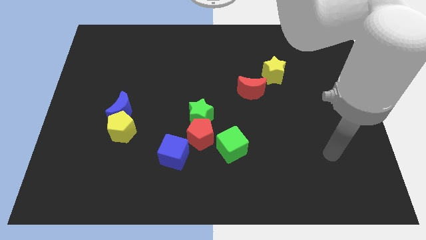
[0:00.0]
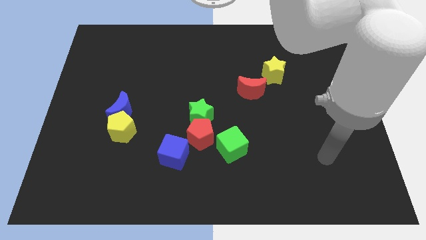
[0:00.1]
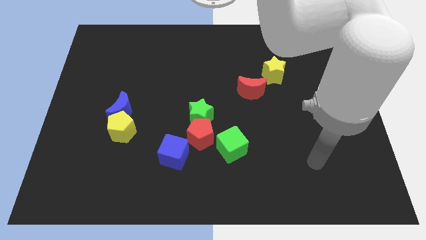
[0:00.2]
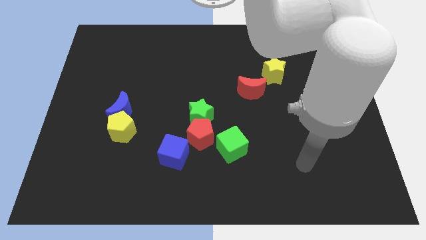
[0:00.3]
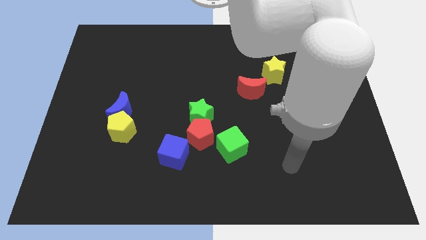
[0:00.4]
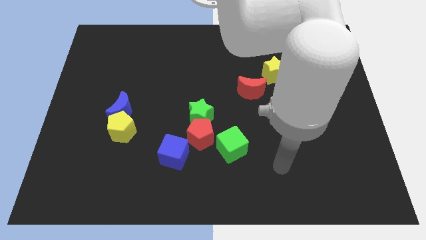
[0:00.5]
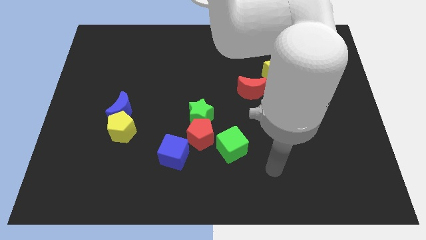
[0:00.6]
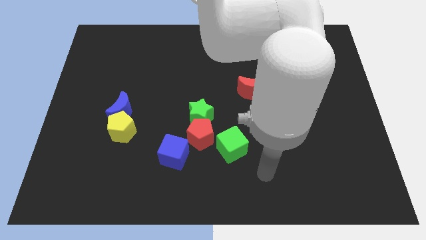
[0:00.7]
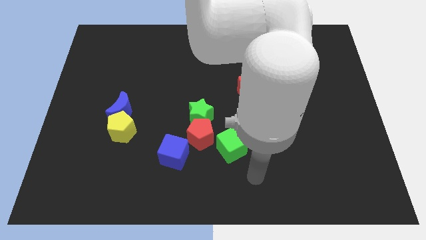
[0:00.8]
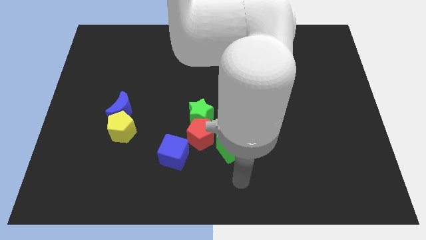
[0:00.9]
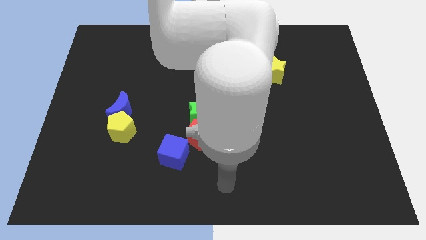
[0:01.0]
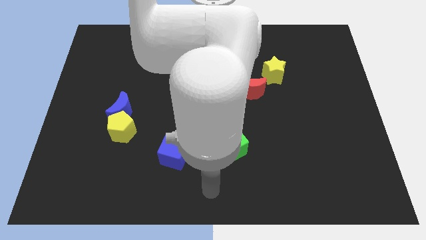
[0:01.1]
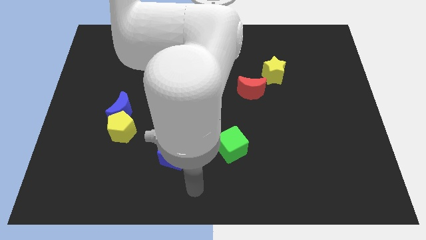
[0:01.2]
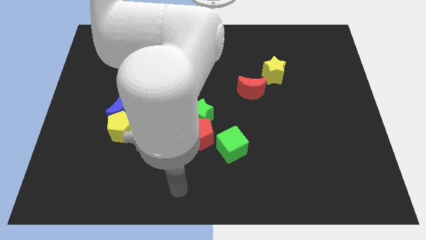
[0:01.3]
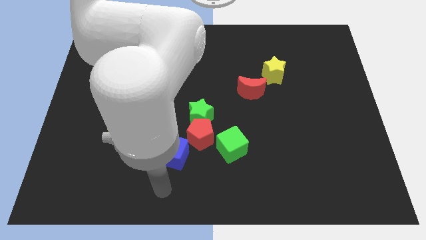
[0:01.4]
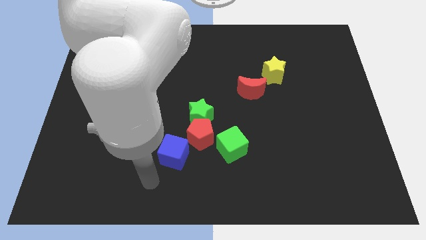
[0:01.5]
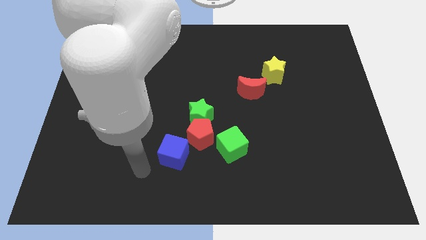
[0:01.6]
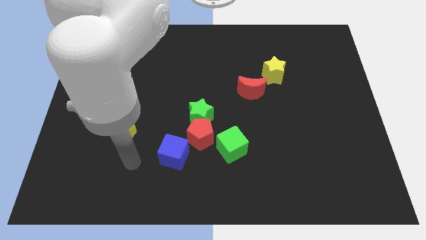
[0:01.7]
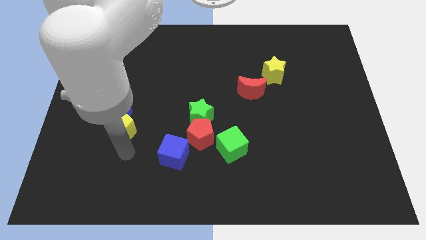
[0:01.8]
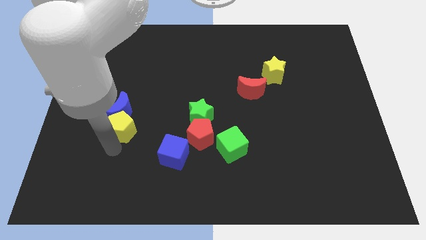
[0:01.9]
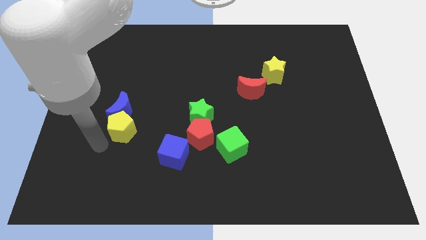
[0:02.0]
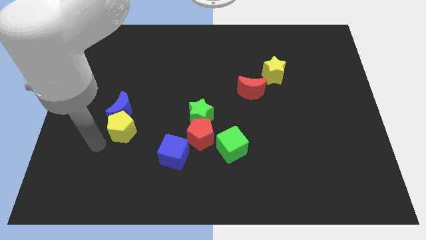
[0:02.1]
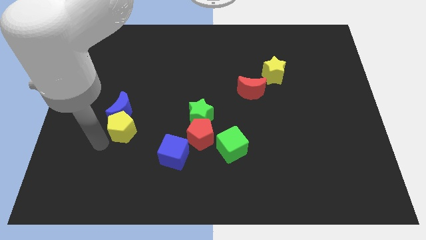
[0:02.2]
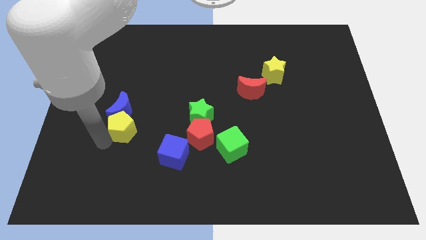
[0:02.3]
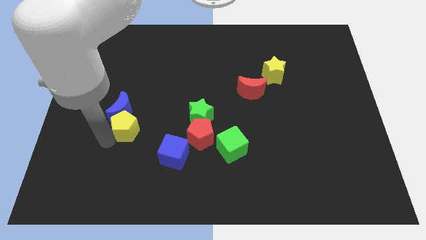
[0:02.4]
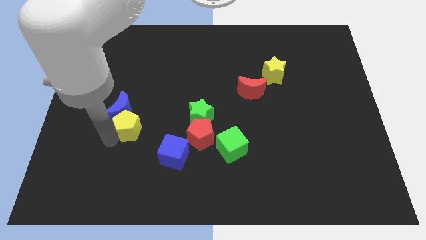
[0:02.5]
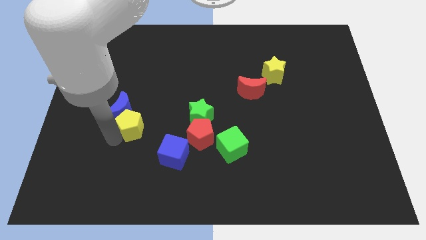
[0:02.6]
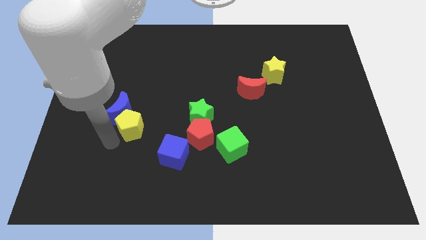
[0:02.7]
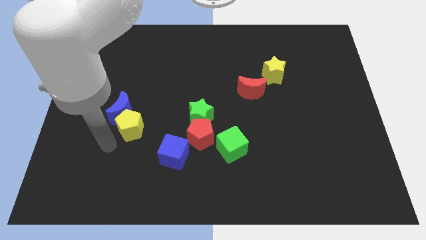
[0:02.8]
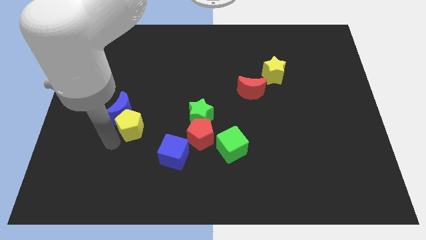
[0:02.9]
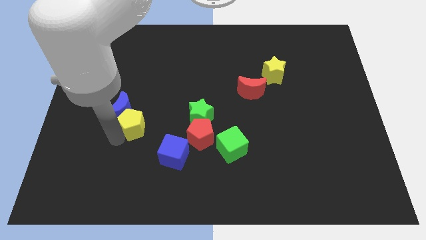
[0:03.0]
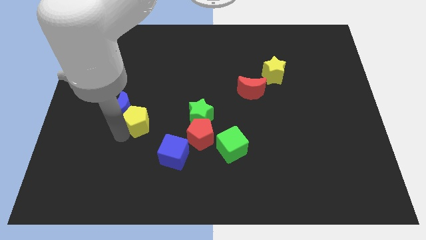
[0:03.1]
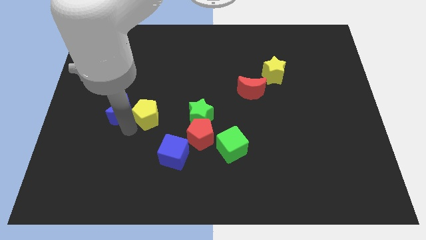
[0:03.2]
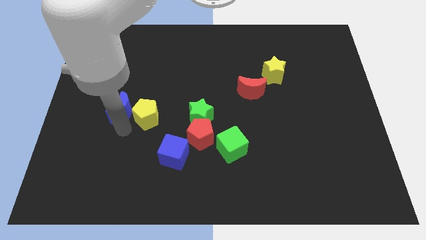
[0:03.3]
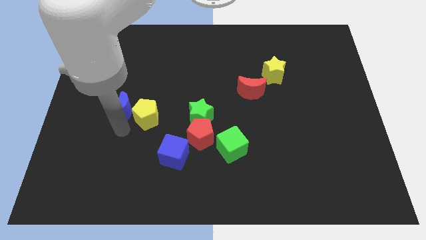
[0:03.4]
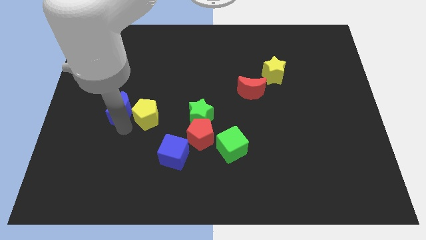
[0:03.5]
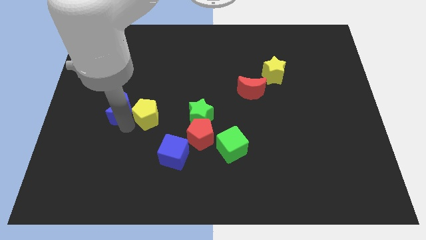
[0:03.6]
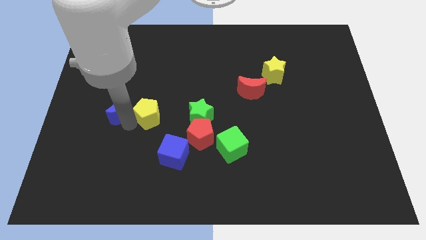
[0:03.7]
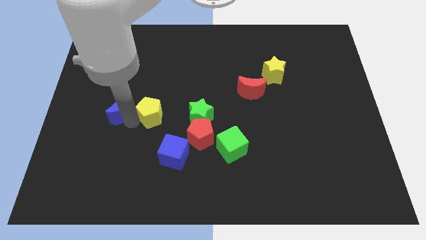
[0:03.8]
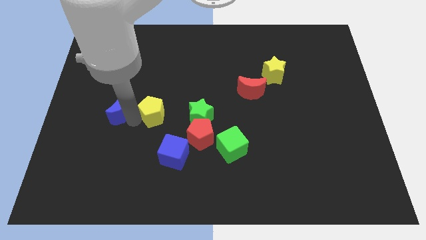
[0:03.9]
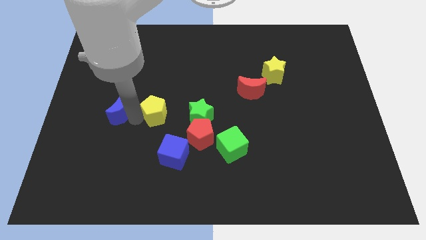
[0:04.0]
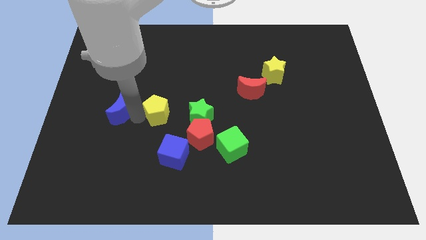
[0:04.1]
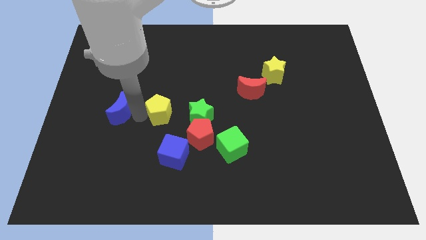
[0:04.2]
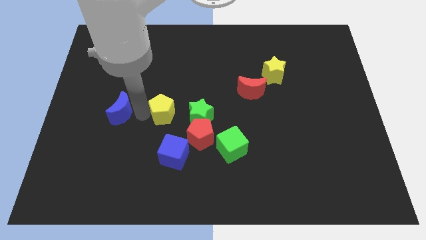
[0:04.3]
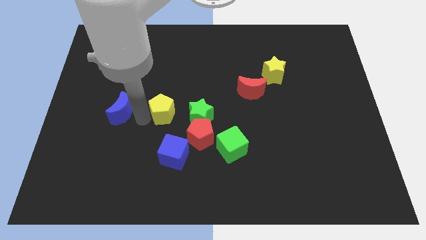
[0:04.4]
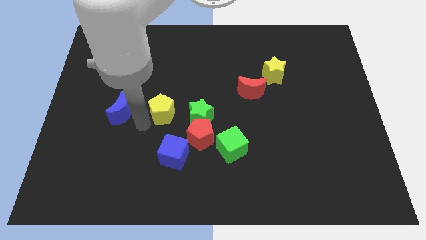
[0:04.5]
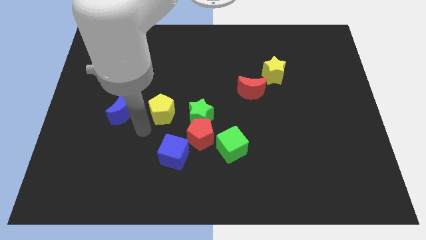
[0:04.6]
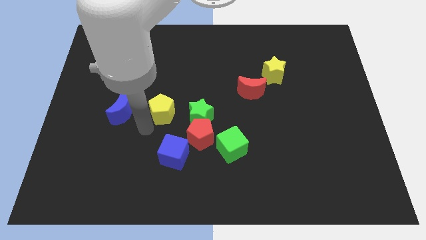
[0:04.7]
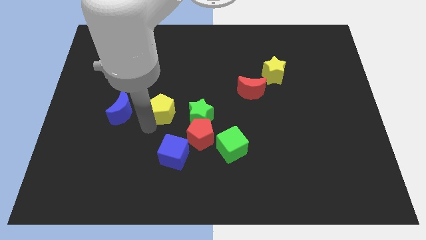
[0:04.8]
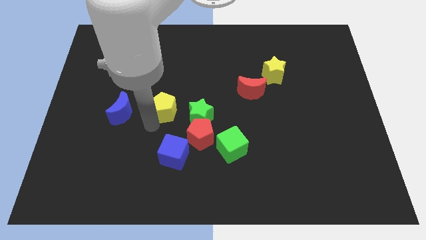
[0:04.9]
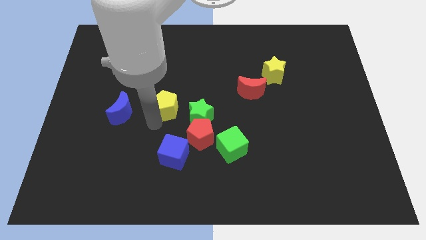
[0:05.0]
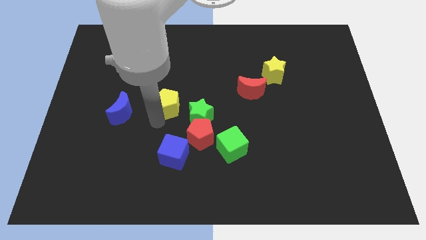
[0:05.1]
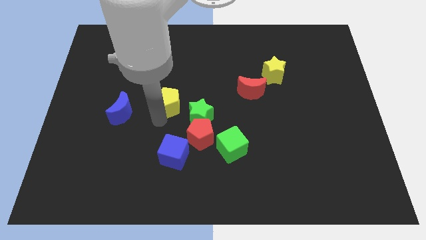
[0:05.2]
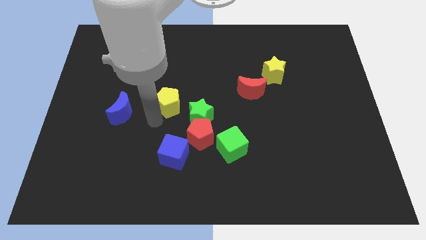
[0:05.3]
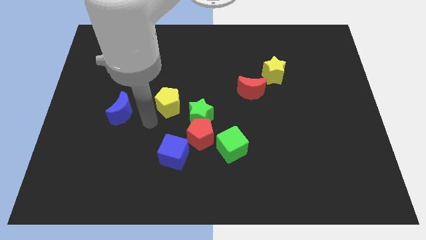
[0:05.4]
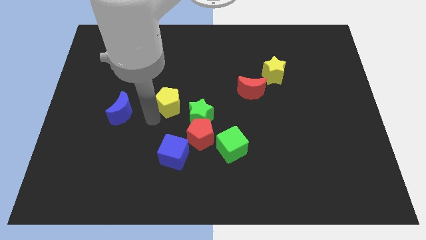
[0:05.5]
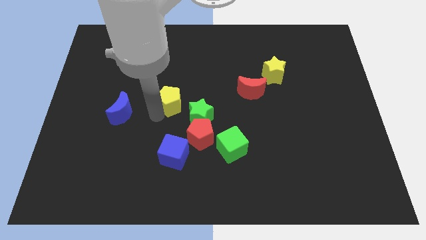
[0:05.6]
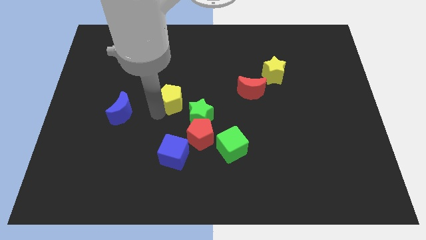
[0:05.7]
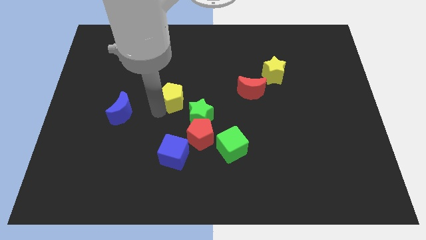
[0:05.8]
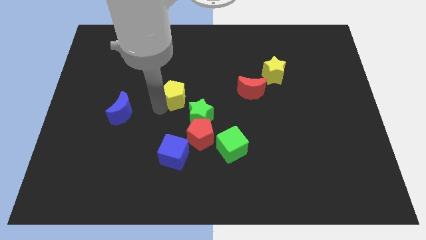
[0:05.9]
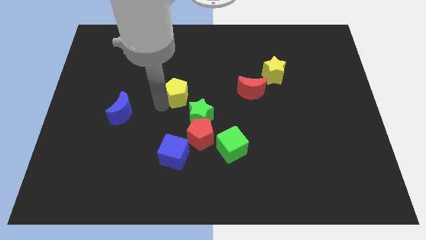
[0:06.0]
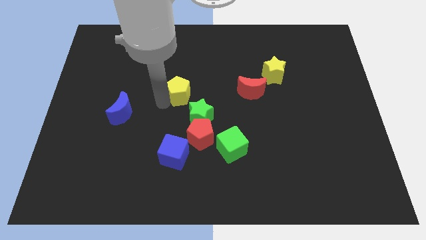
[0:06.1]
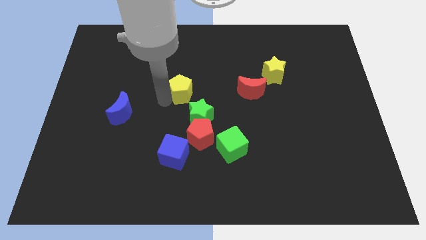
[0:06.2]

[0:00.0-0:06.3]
move the yellow pentagon to the top side of the green star
